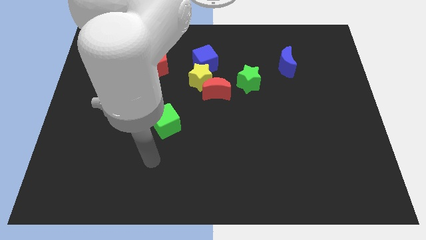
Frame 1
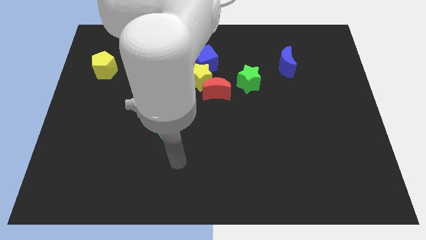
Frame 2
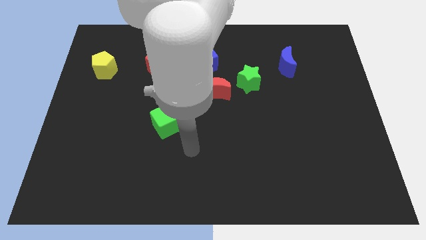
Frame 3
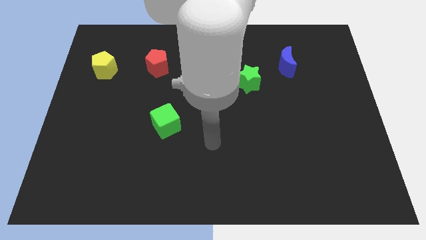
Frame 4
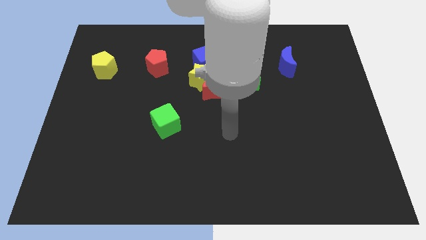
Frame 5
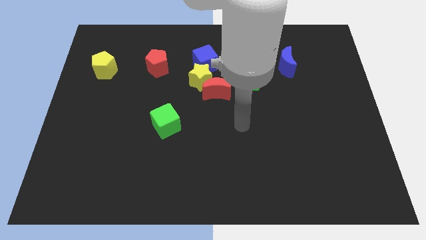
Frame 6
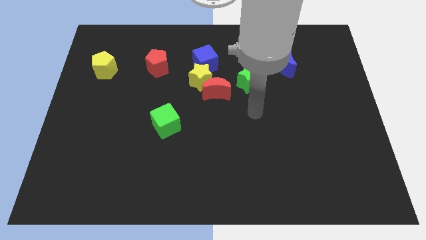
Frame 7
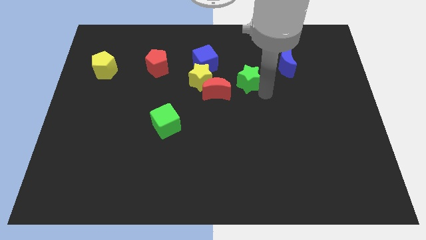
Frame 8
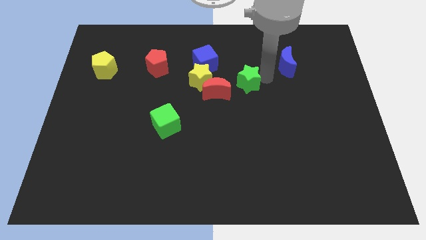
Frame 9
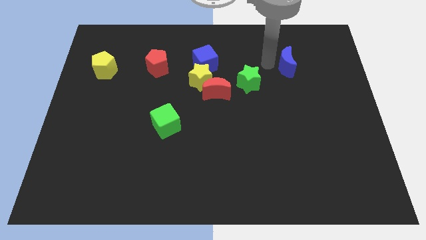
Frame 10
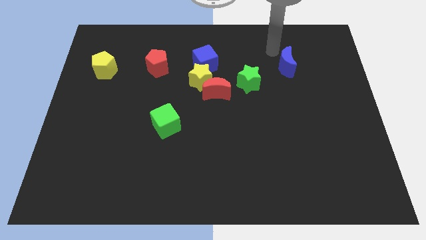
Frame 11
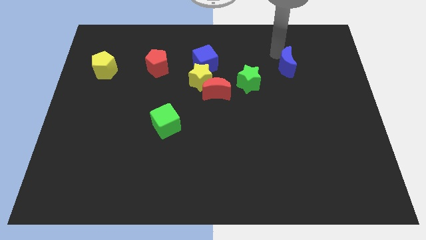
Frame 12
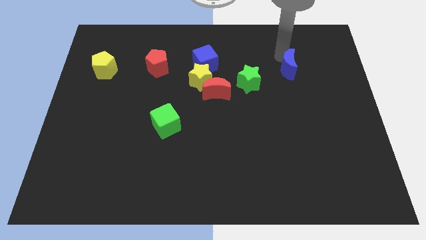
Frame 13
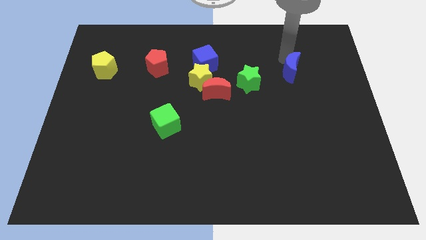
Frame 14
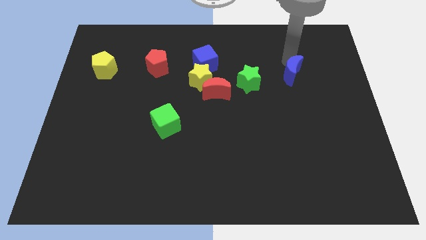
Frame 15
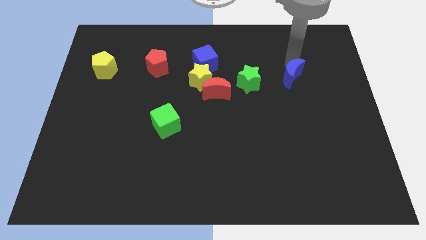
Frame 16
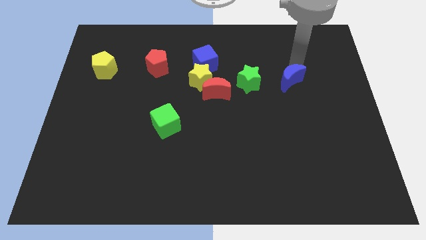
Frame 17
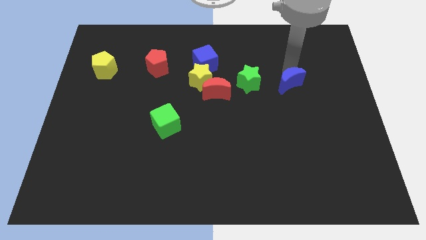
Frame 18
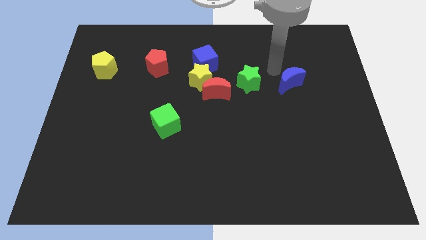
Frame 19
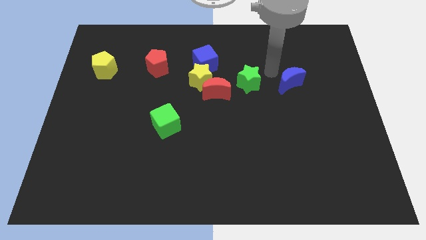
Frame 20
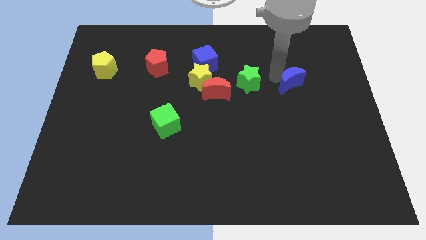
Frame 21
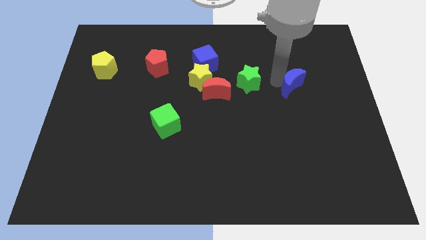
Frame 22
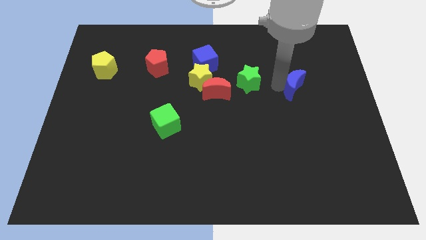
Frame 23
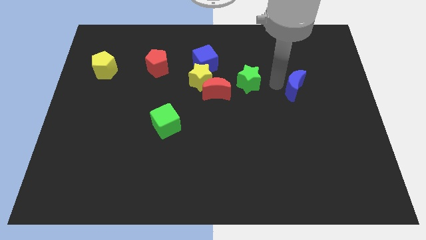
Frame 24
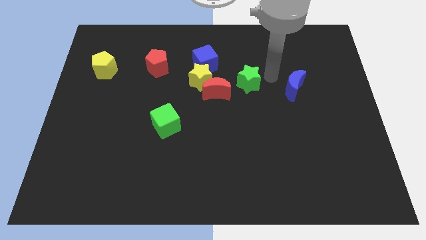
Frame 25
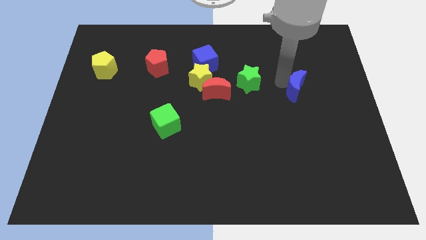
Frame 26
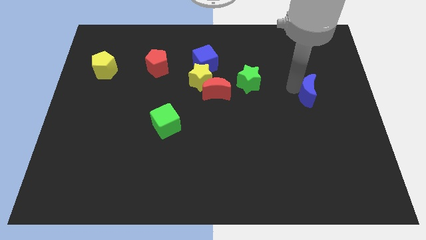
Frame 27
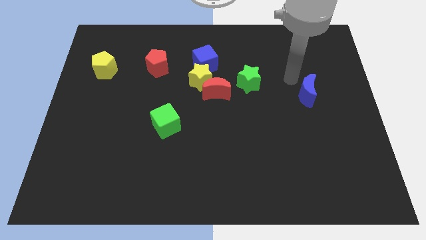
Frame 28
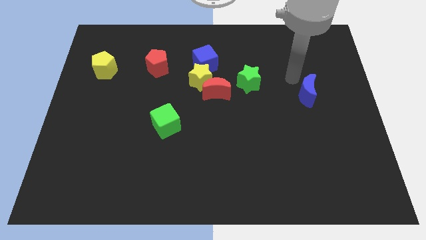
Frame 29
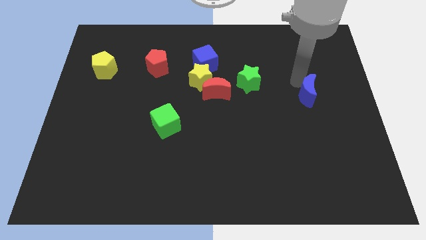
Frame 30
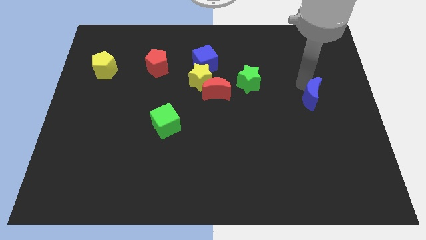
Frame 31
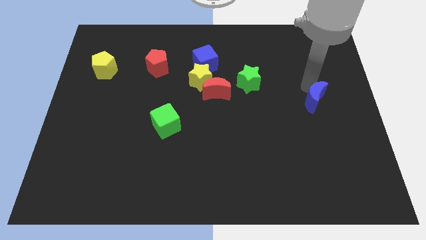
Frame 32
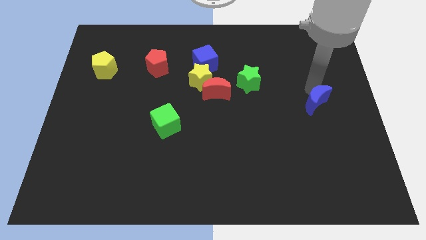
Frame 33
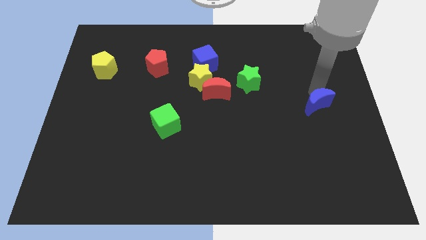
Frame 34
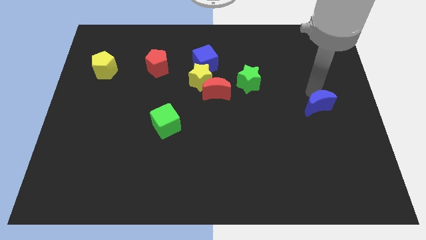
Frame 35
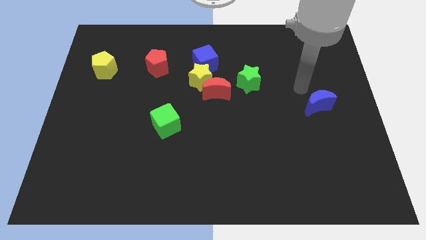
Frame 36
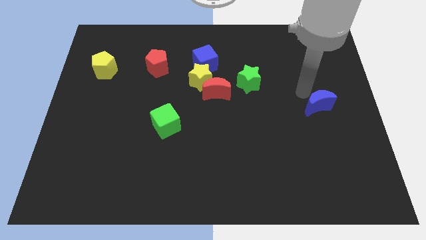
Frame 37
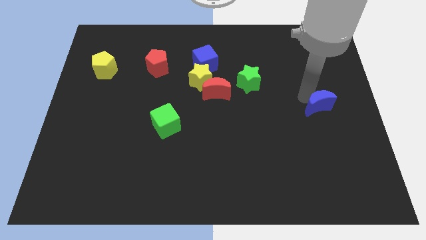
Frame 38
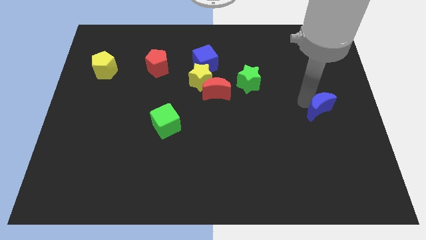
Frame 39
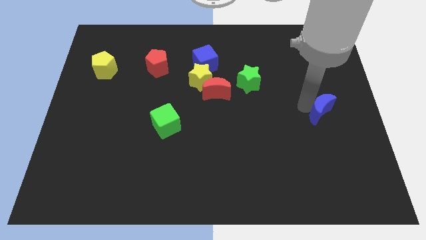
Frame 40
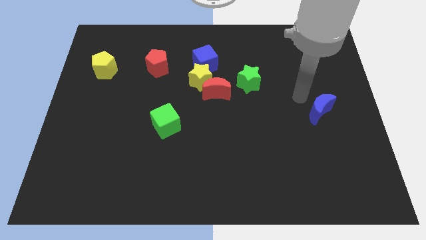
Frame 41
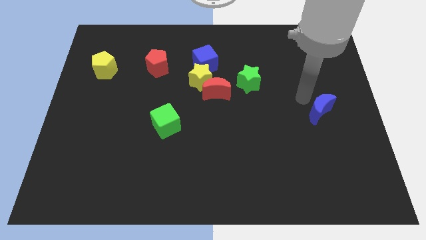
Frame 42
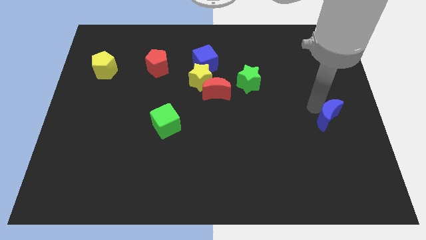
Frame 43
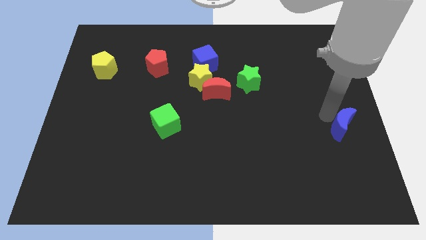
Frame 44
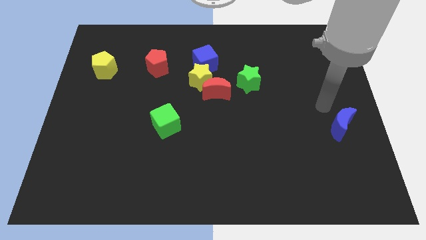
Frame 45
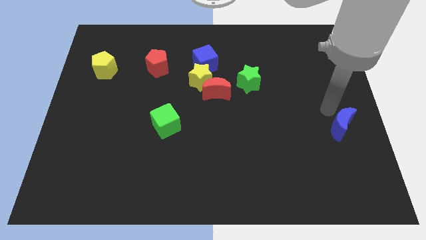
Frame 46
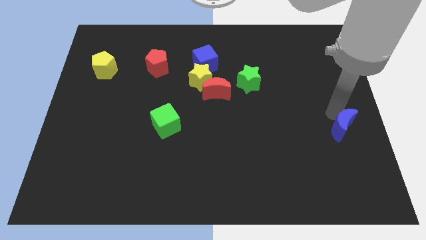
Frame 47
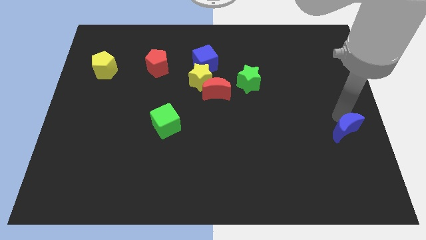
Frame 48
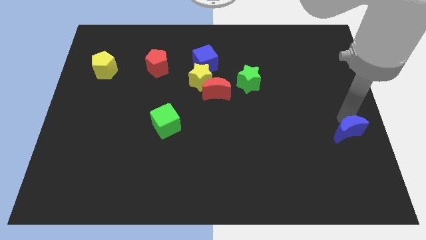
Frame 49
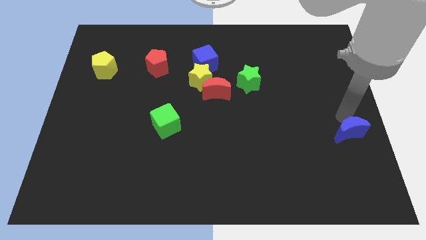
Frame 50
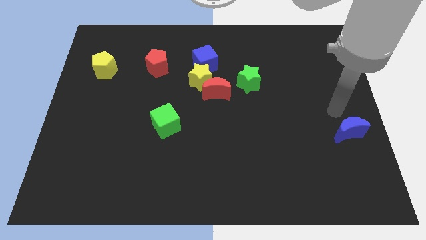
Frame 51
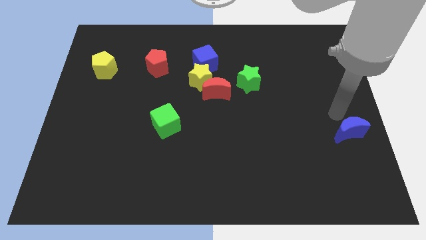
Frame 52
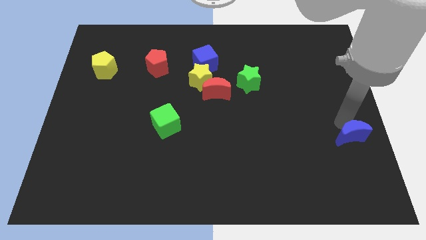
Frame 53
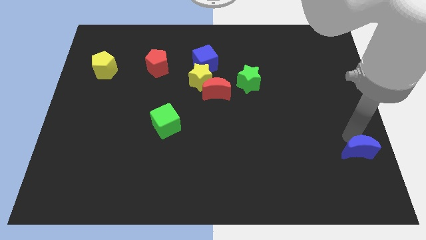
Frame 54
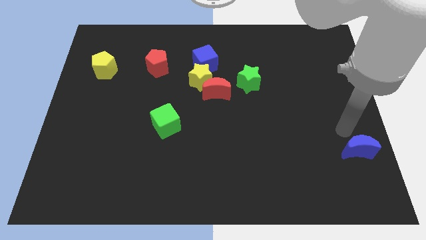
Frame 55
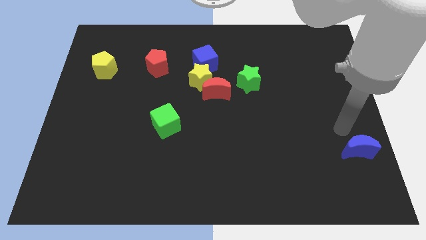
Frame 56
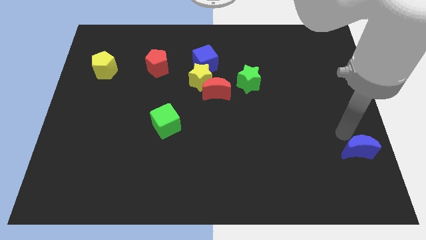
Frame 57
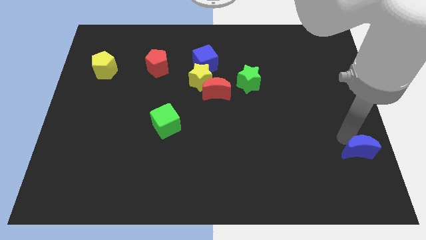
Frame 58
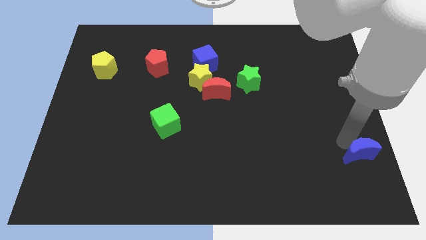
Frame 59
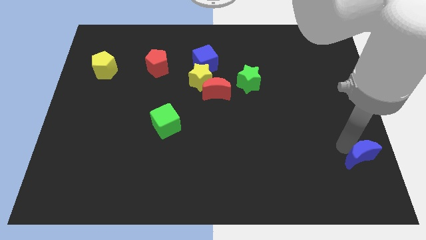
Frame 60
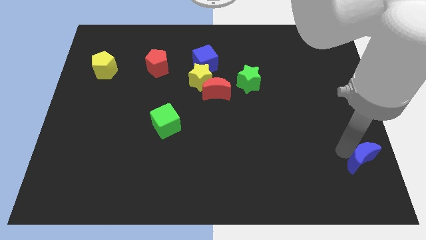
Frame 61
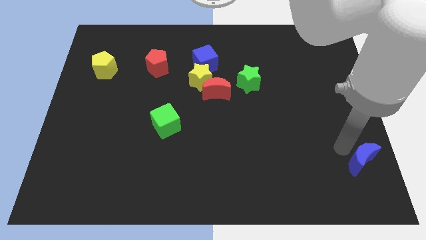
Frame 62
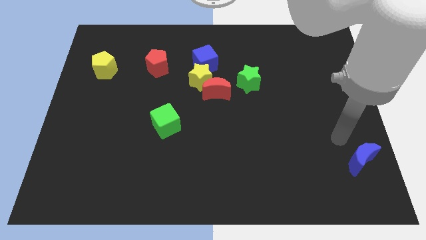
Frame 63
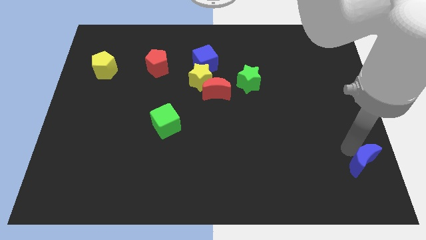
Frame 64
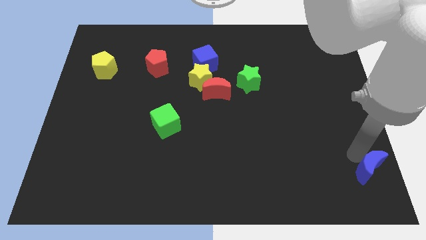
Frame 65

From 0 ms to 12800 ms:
put the blue moon to the lower right corner

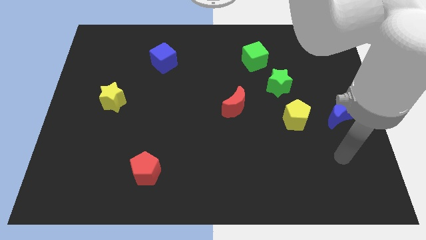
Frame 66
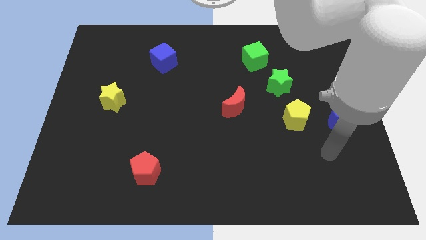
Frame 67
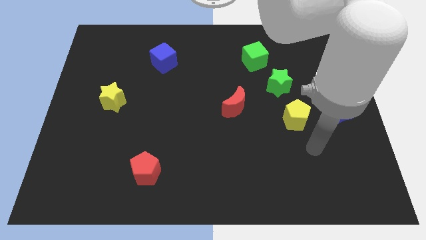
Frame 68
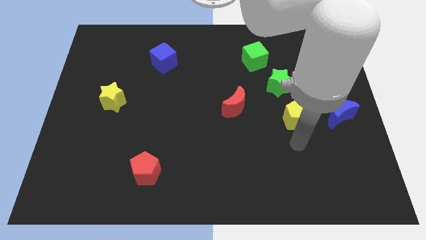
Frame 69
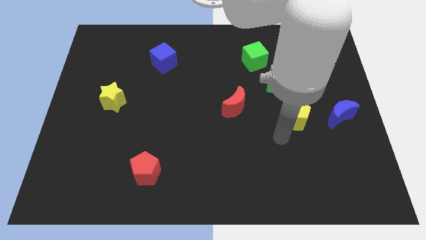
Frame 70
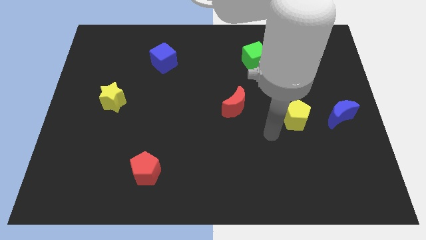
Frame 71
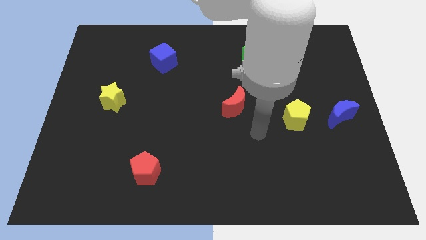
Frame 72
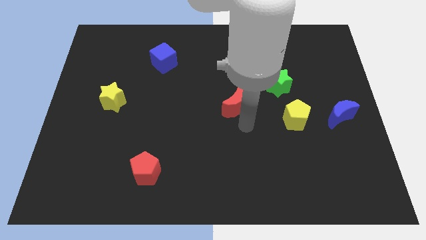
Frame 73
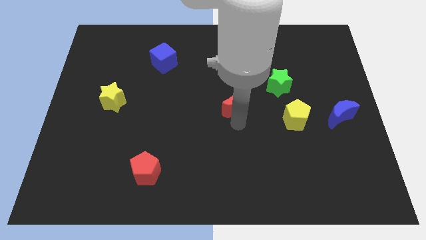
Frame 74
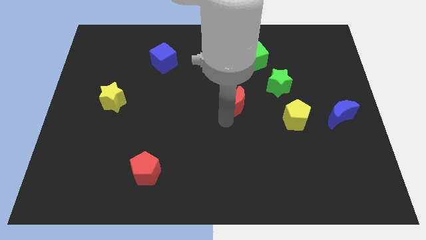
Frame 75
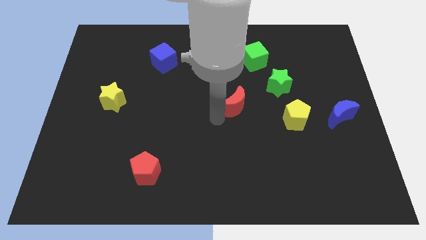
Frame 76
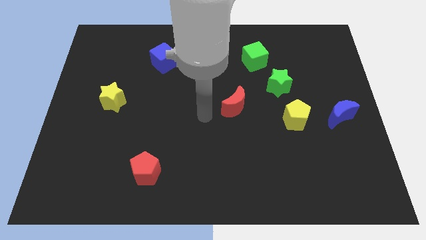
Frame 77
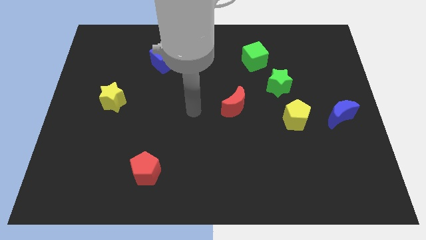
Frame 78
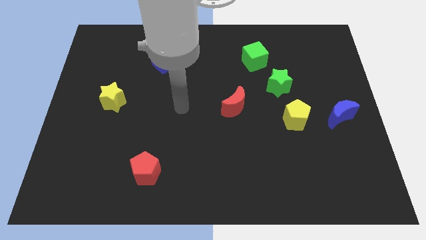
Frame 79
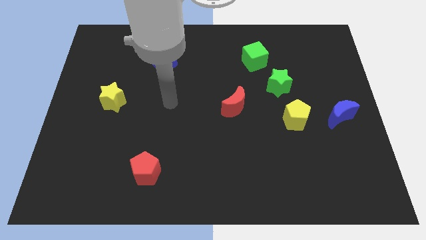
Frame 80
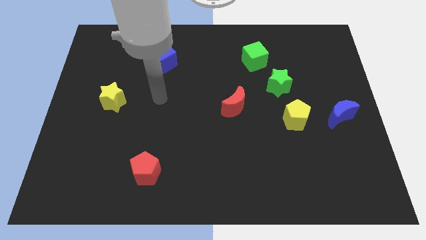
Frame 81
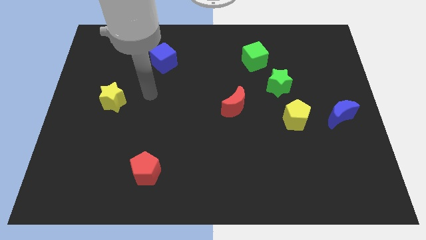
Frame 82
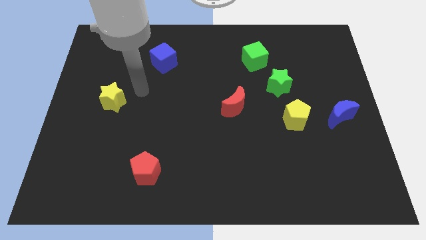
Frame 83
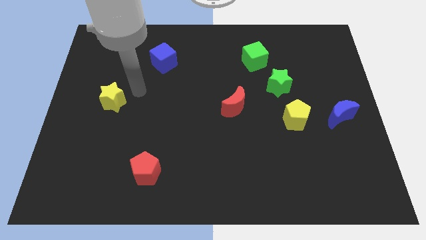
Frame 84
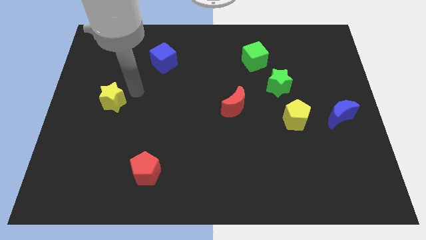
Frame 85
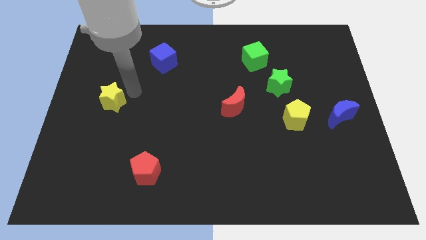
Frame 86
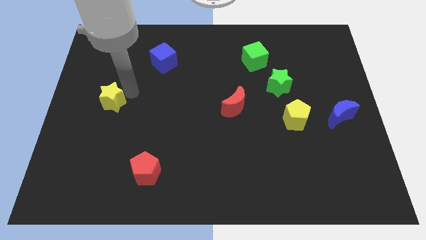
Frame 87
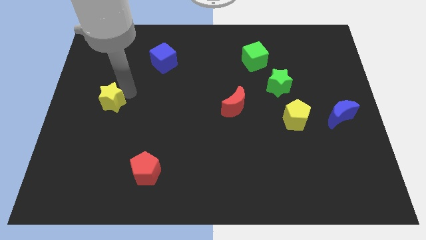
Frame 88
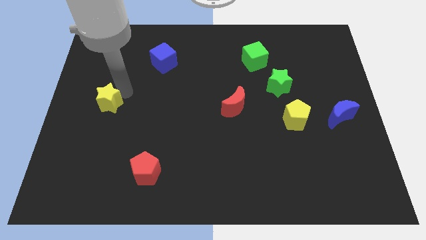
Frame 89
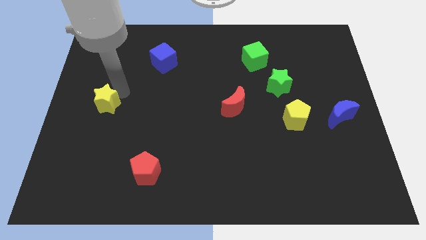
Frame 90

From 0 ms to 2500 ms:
put the yellow star to the center left
